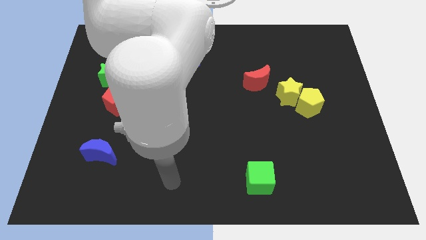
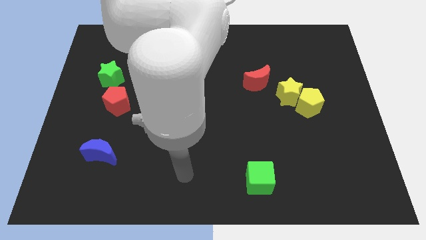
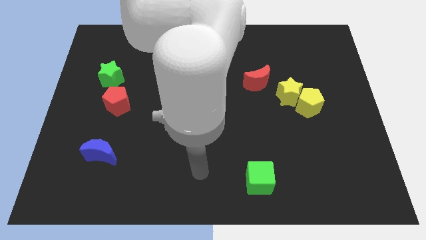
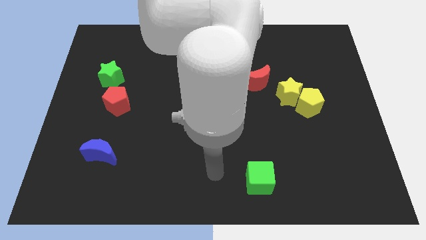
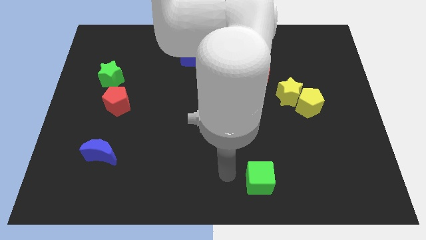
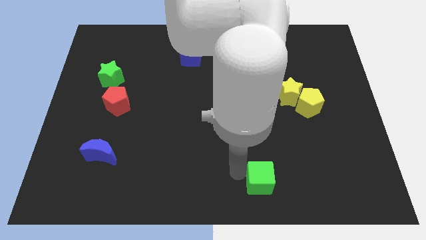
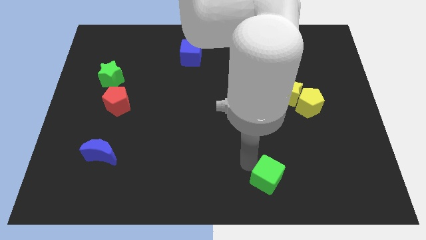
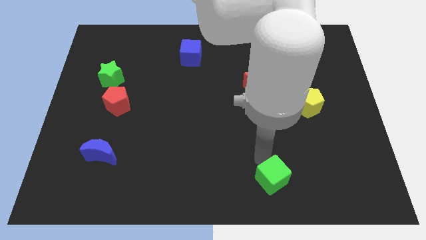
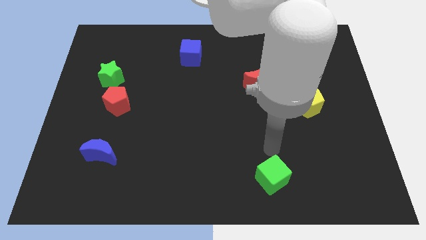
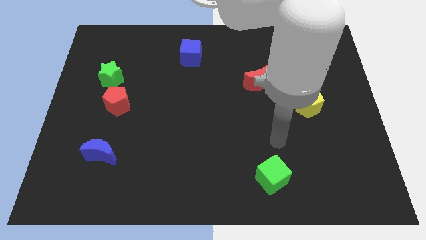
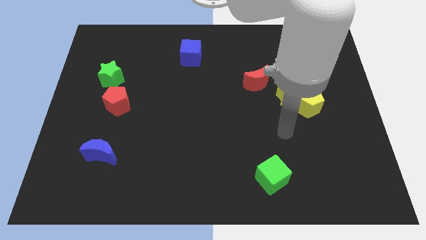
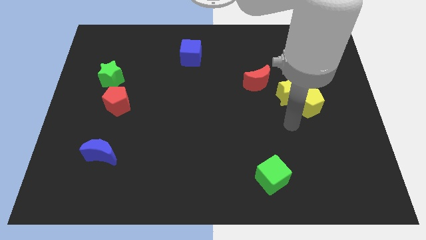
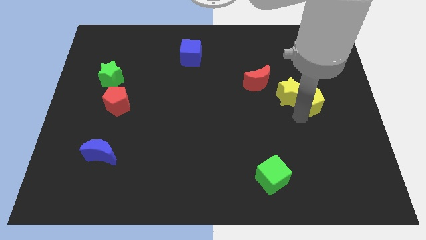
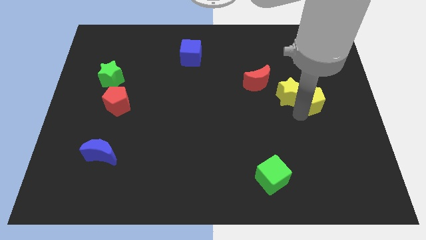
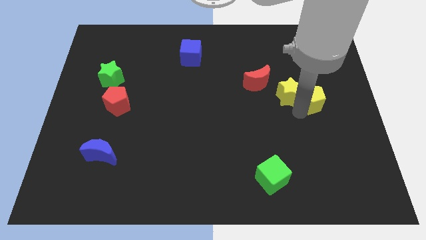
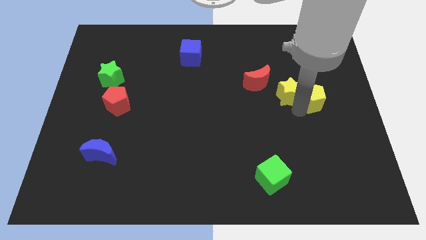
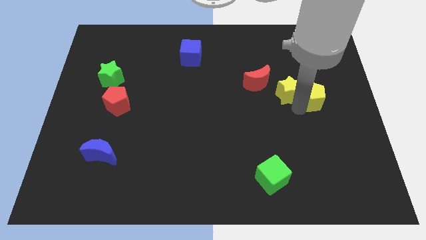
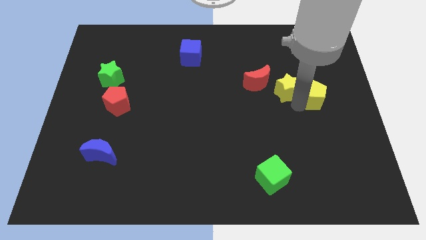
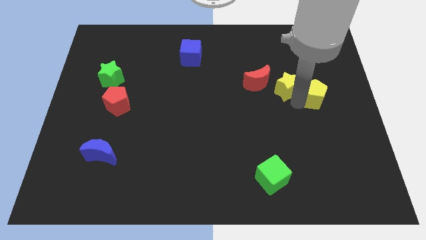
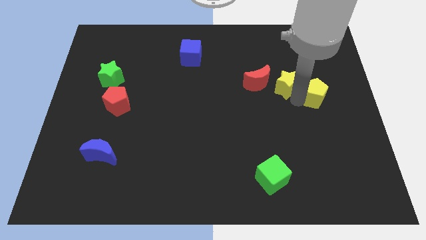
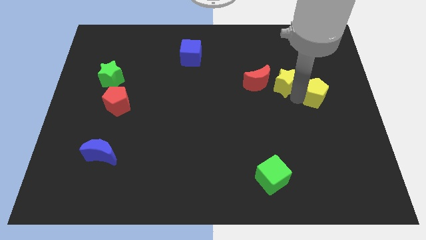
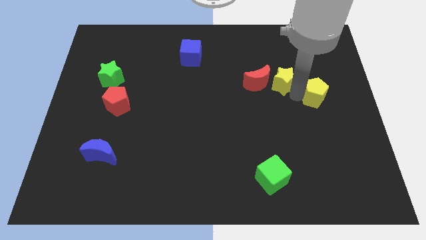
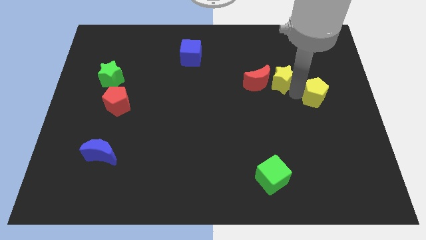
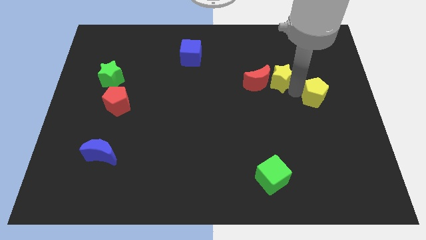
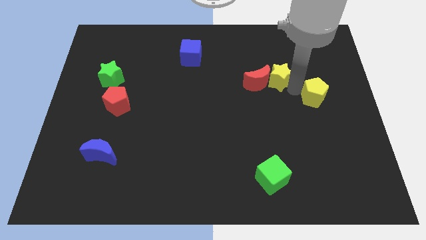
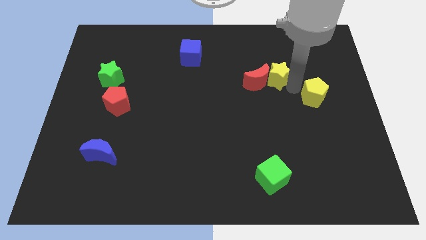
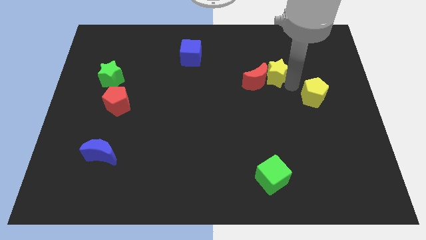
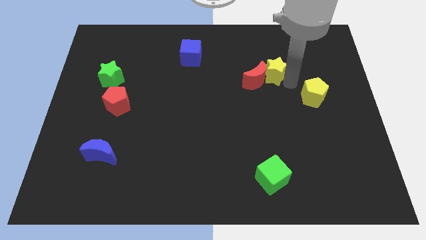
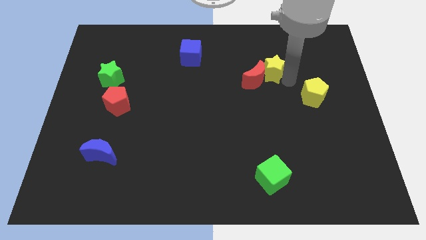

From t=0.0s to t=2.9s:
slightly slide the yellow star upwards and left diagonally

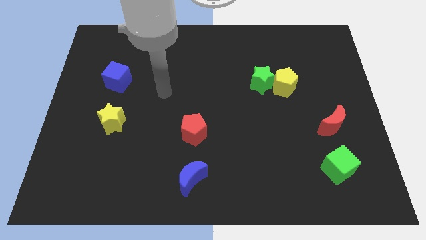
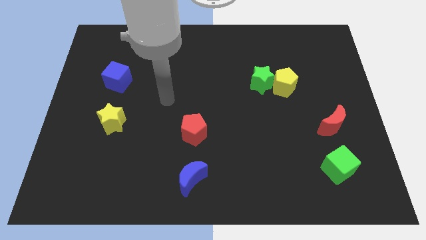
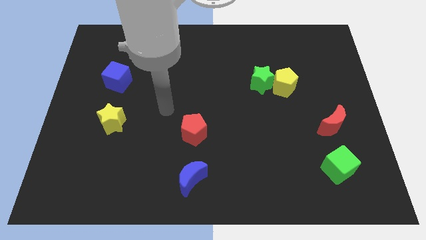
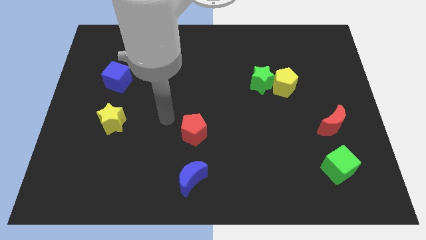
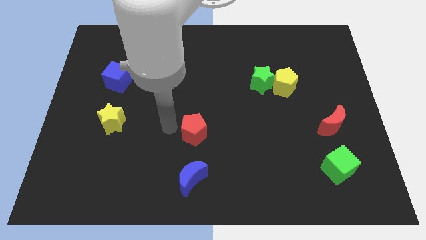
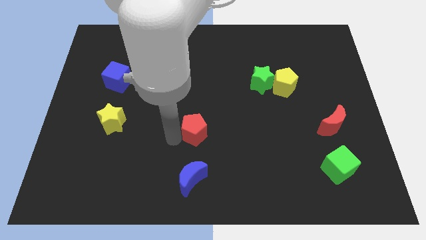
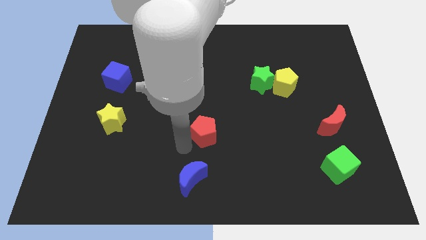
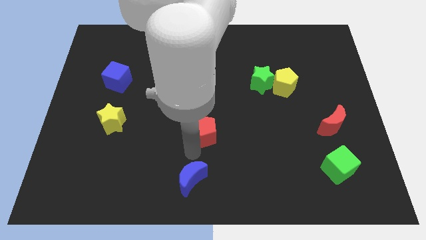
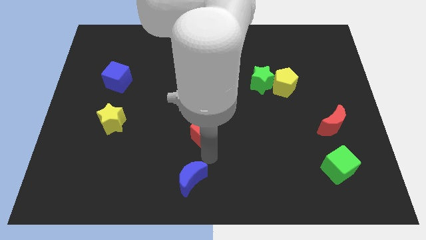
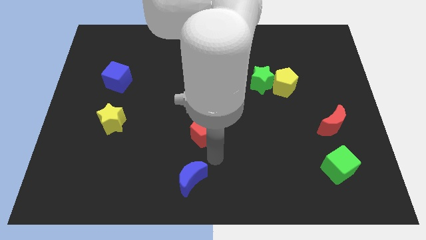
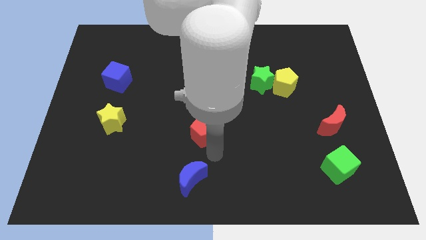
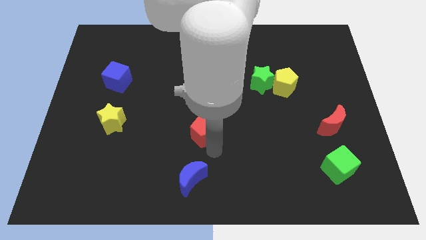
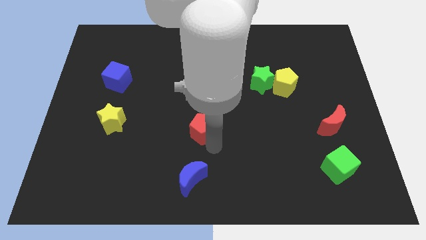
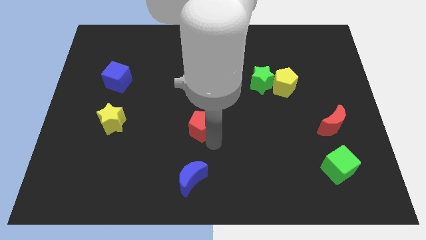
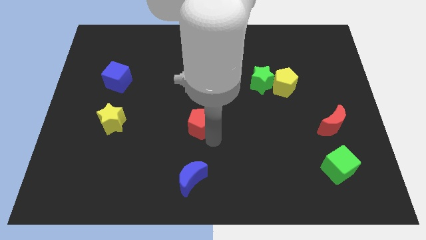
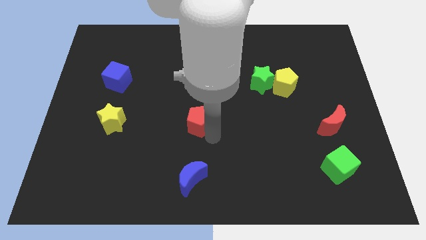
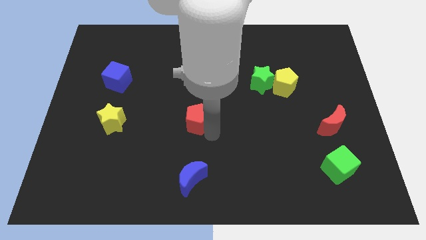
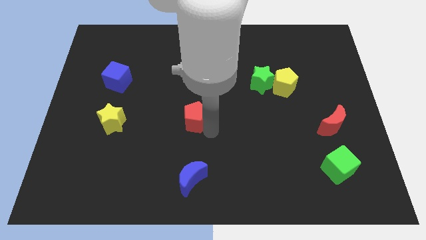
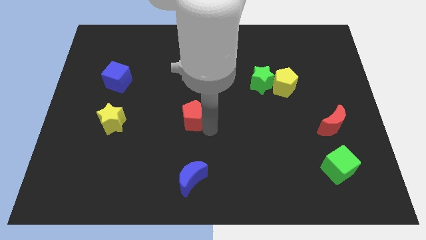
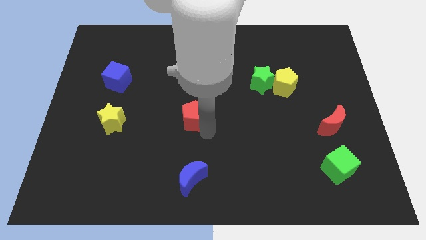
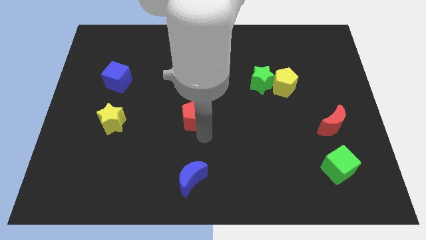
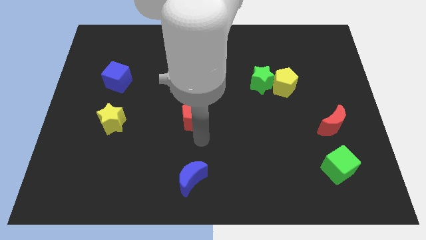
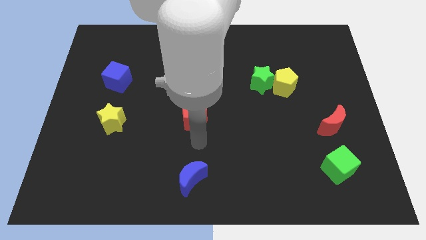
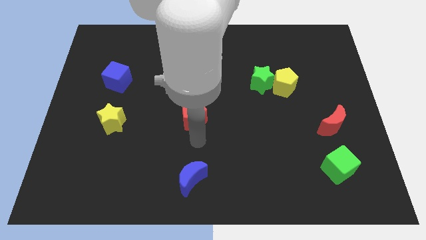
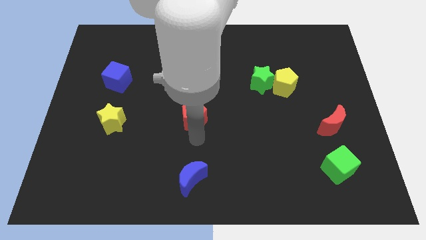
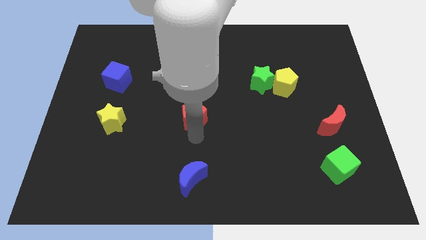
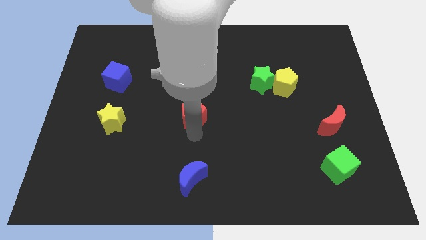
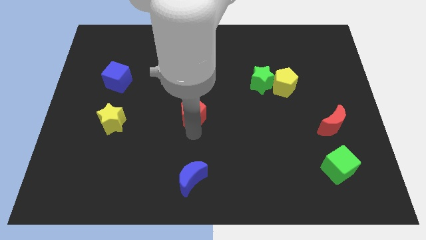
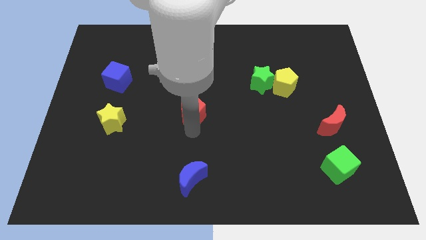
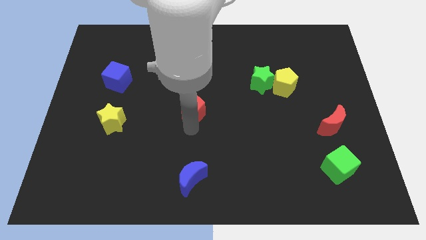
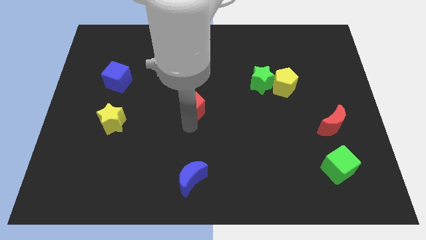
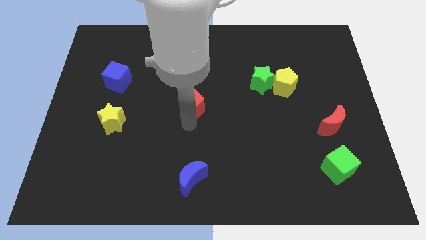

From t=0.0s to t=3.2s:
slide the red pentagon upwards a little bit

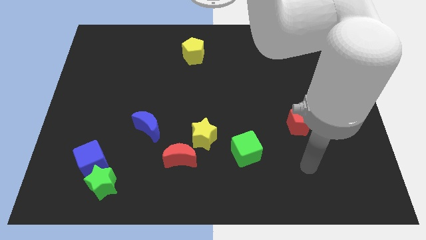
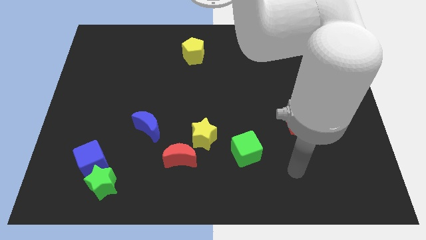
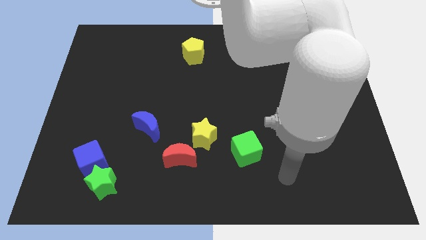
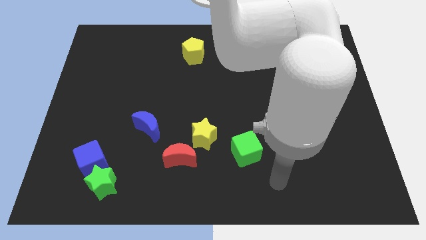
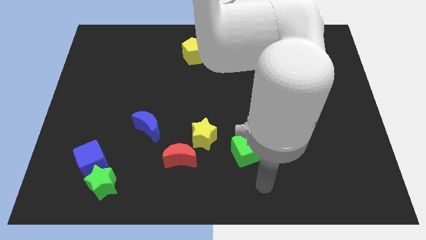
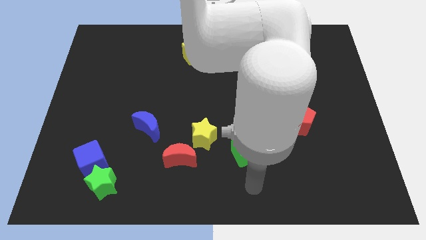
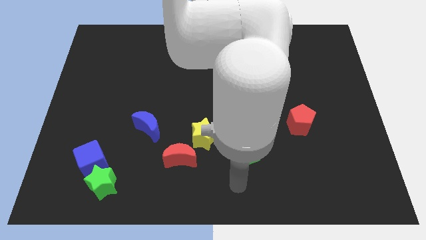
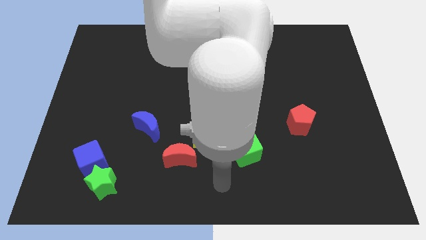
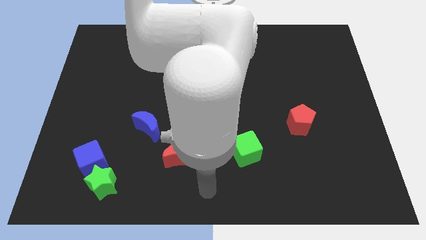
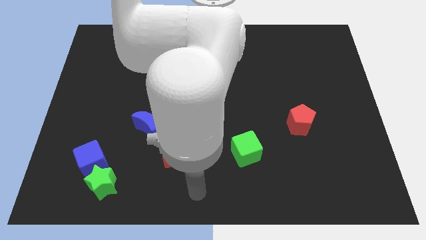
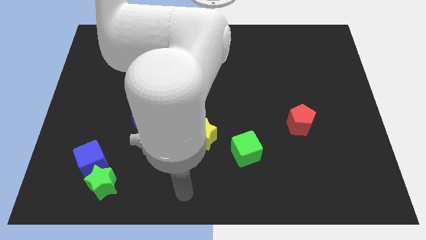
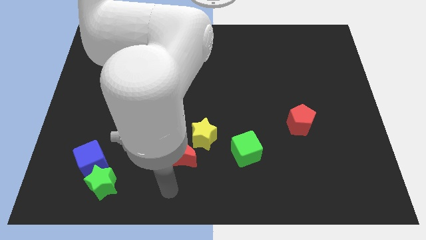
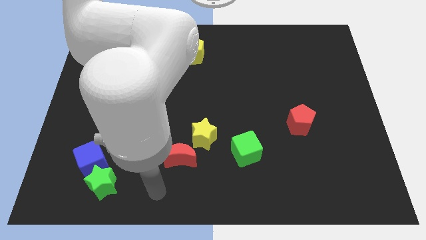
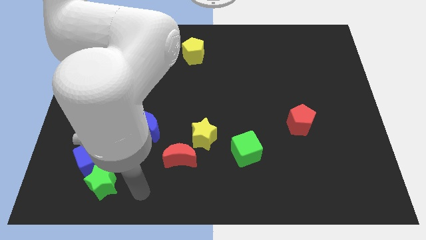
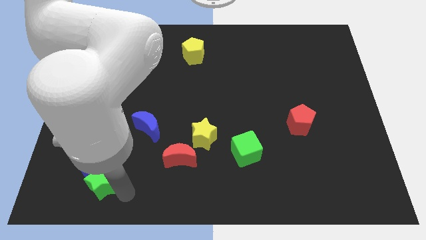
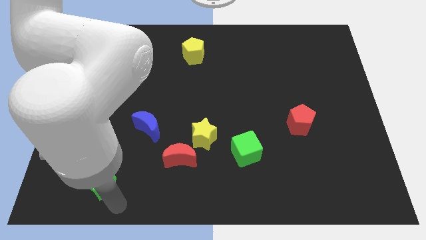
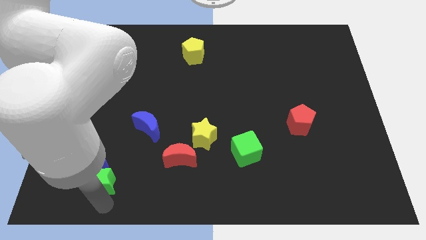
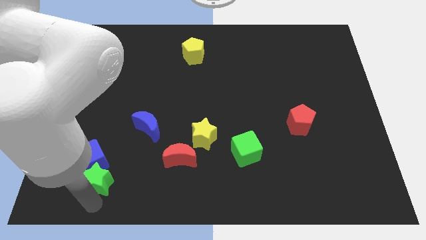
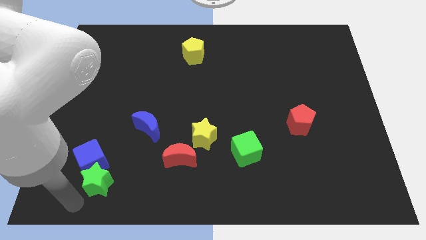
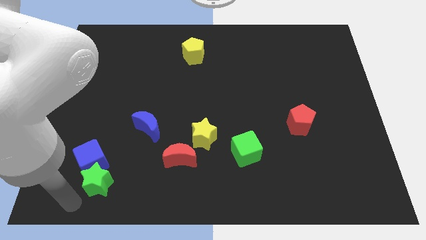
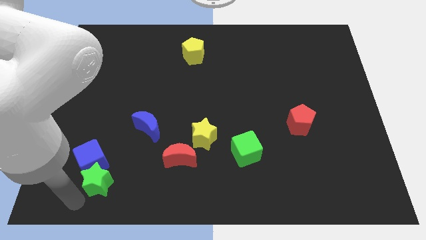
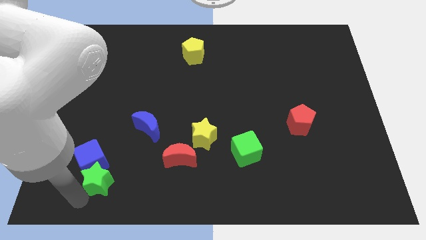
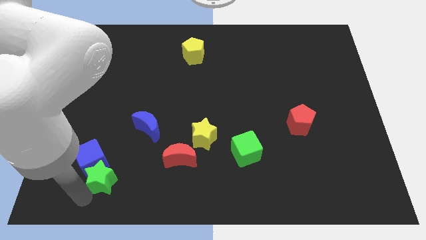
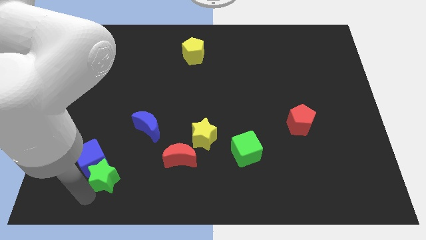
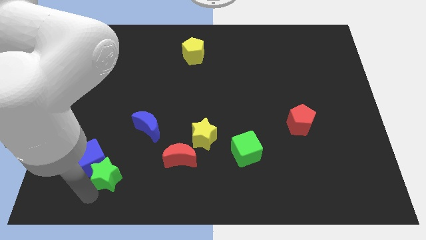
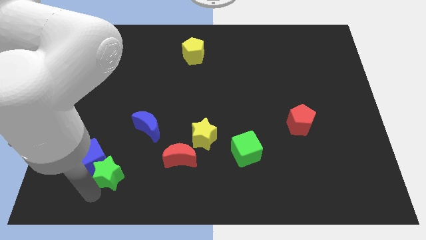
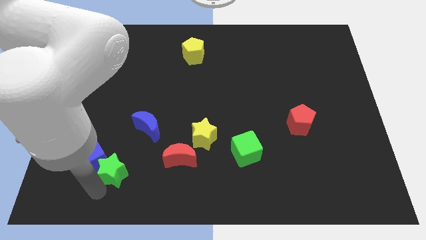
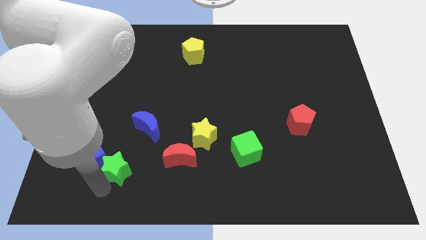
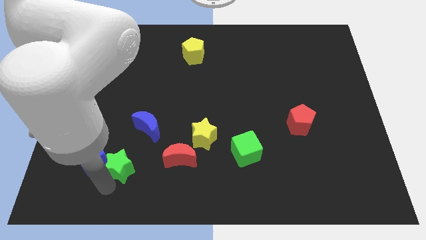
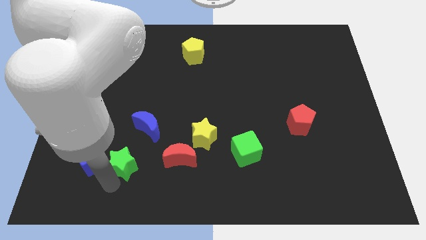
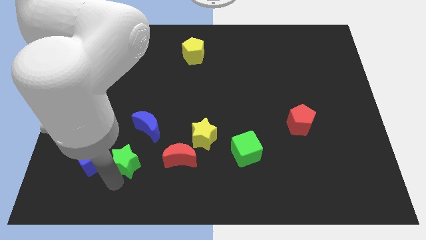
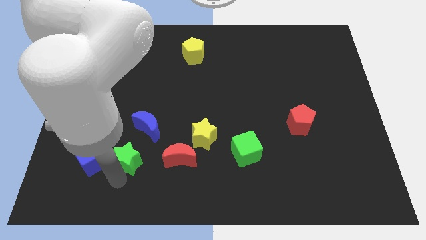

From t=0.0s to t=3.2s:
slide the green star up and right a bit
